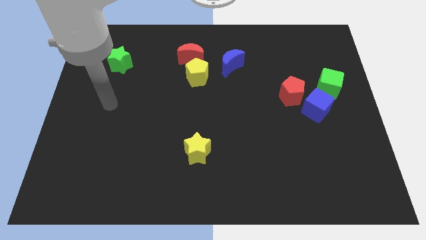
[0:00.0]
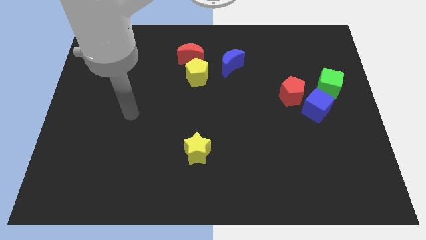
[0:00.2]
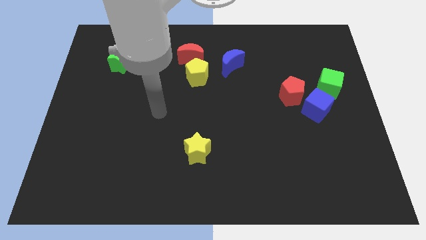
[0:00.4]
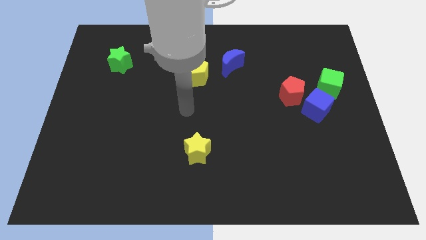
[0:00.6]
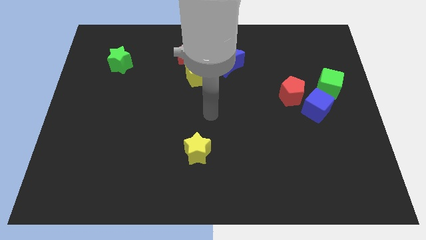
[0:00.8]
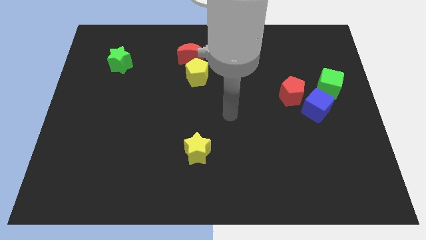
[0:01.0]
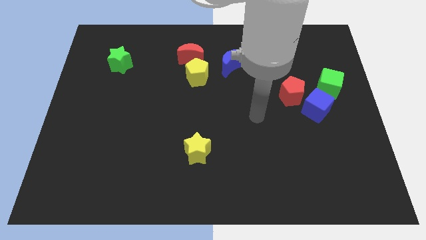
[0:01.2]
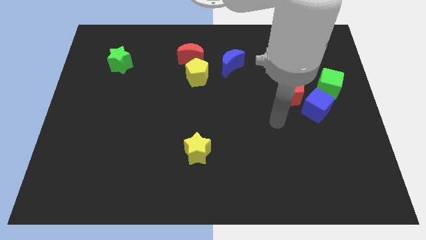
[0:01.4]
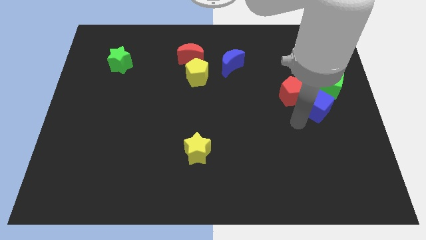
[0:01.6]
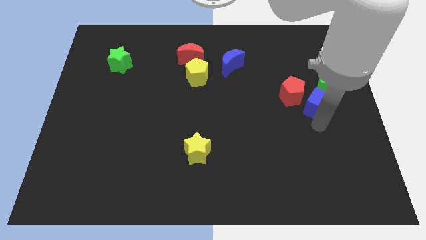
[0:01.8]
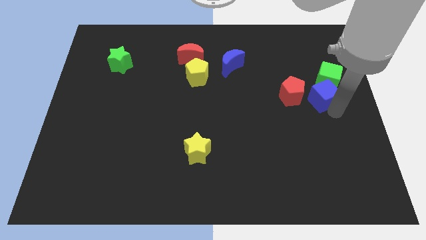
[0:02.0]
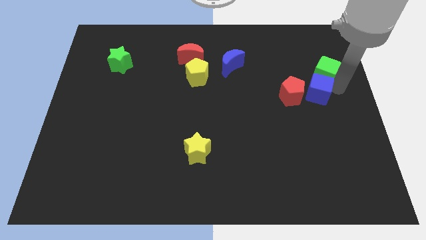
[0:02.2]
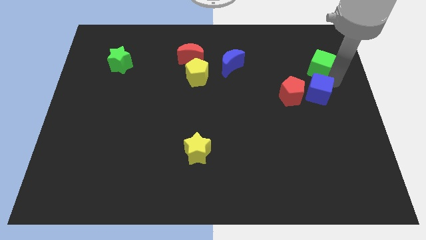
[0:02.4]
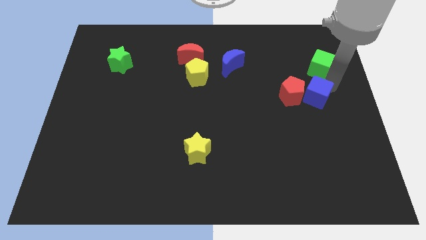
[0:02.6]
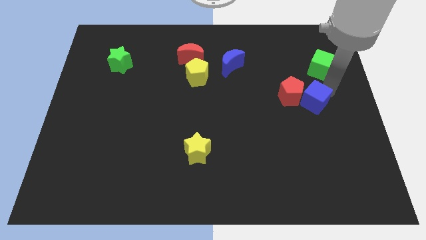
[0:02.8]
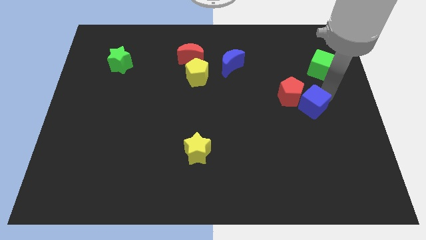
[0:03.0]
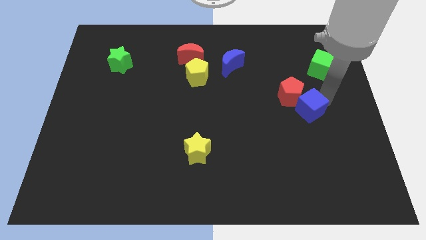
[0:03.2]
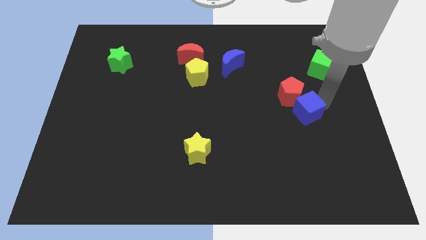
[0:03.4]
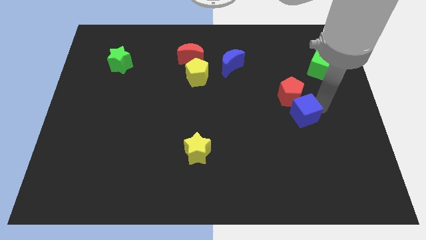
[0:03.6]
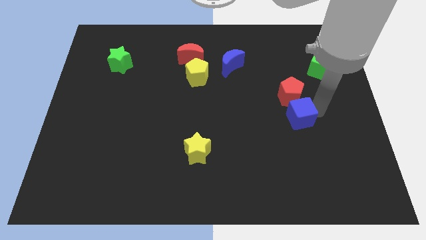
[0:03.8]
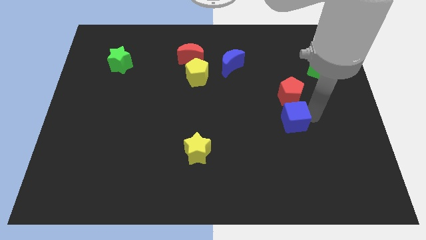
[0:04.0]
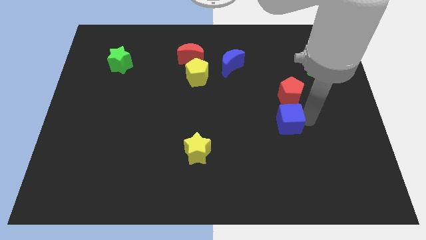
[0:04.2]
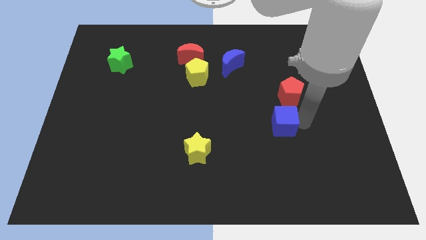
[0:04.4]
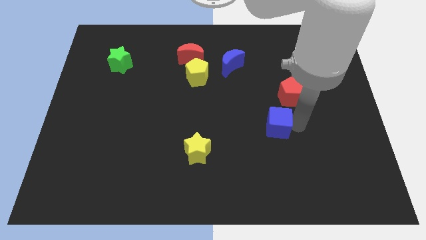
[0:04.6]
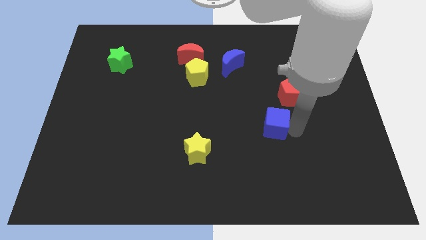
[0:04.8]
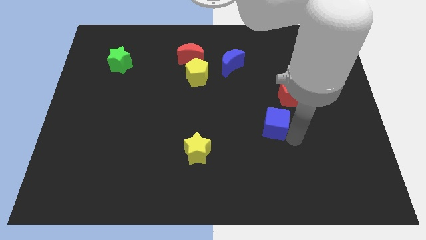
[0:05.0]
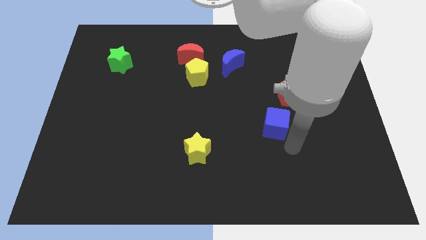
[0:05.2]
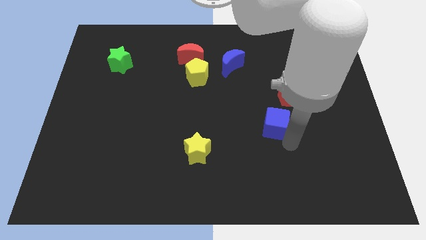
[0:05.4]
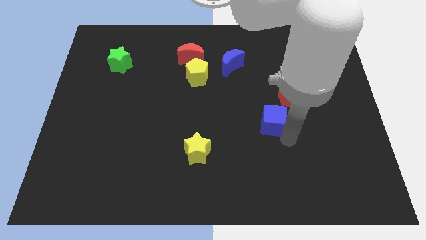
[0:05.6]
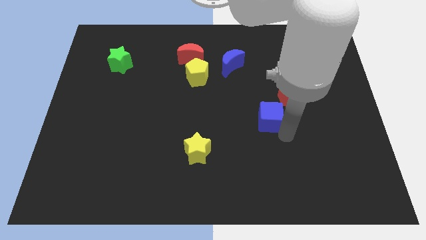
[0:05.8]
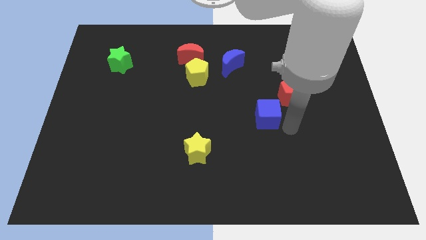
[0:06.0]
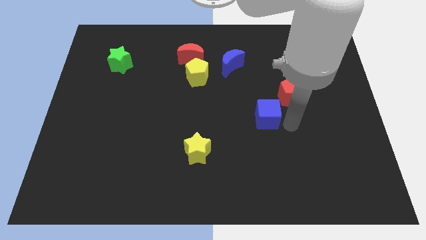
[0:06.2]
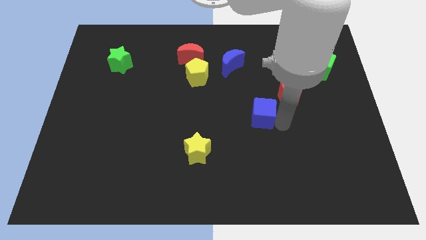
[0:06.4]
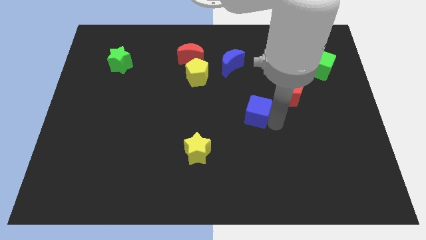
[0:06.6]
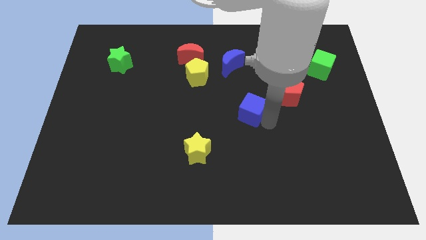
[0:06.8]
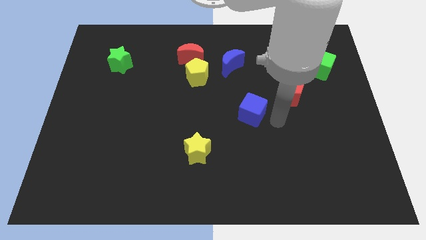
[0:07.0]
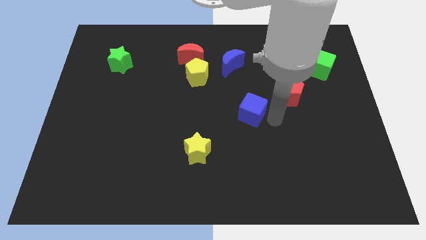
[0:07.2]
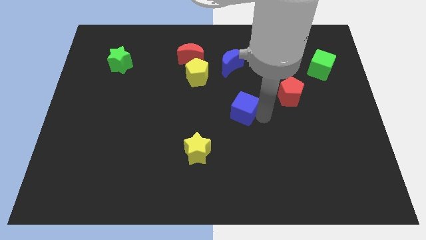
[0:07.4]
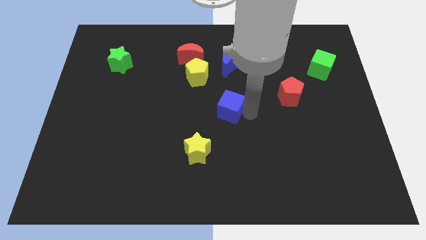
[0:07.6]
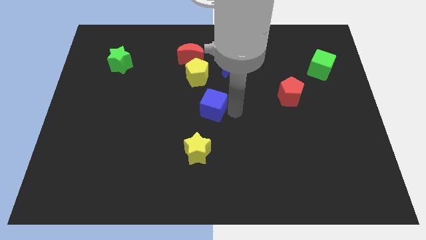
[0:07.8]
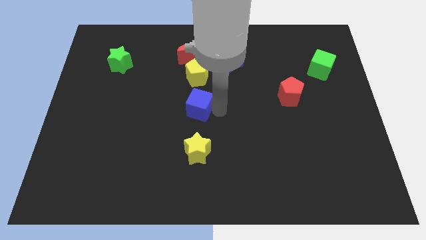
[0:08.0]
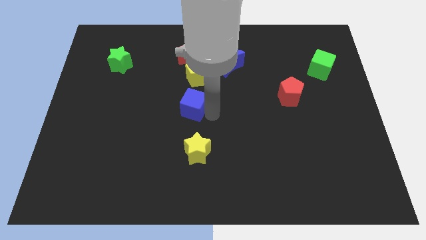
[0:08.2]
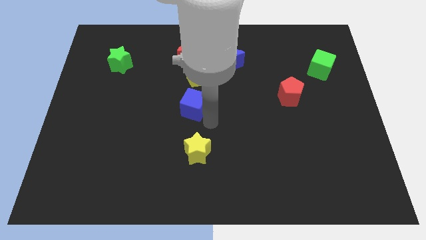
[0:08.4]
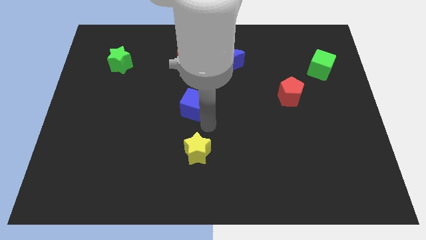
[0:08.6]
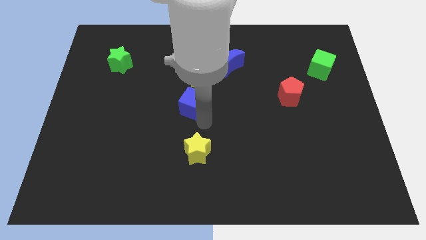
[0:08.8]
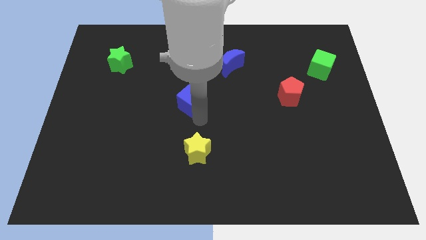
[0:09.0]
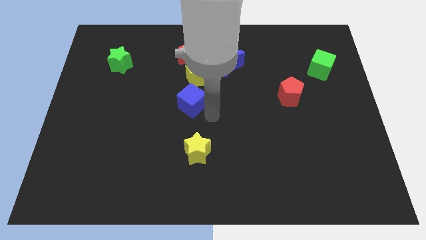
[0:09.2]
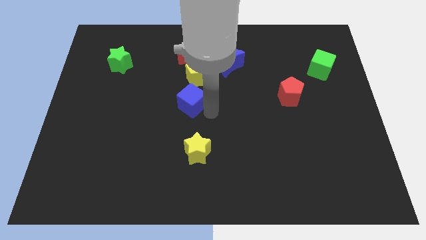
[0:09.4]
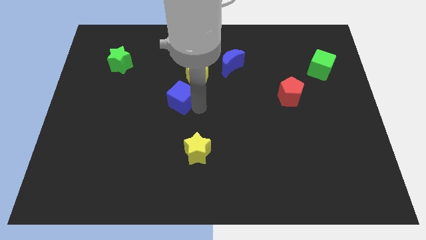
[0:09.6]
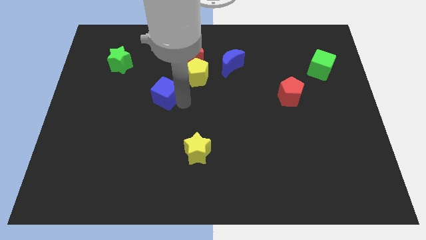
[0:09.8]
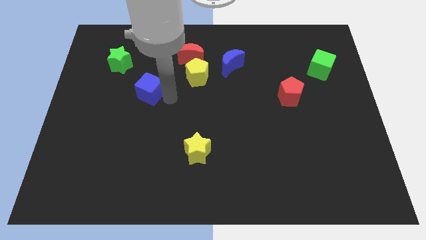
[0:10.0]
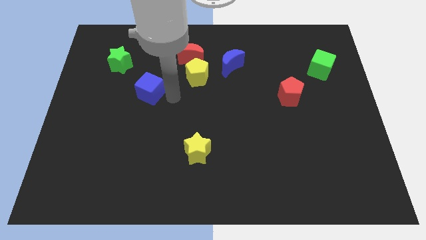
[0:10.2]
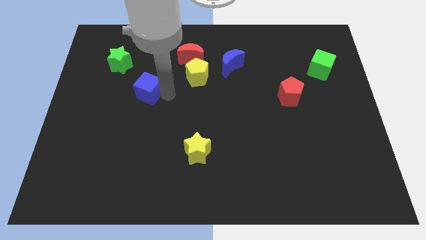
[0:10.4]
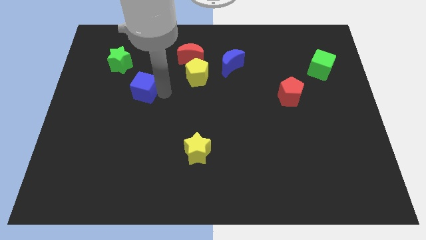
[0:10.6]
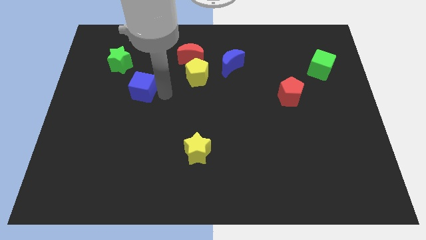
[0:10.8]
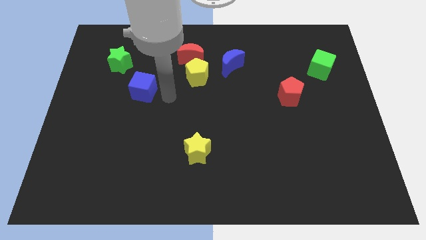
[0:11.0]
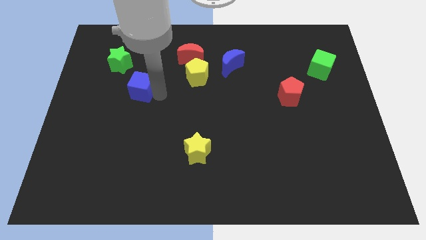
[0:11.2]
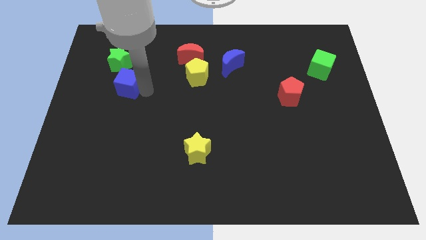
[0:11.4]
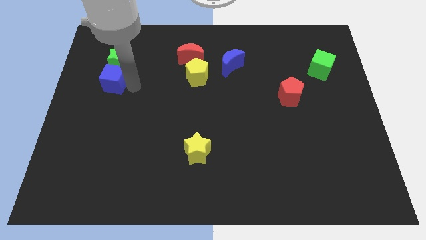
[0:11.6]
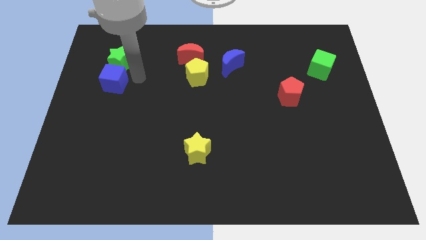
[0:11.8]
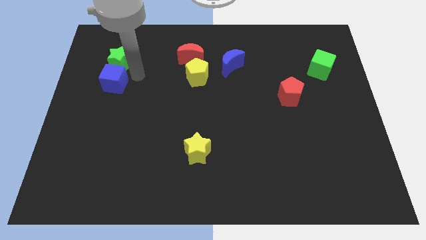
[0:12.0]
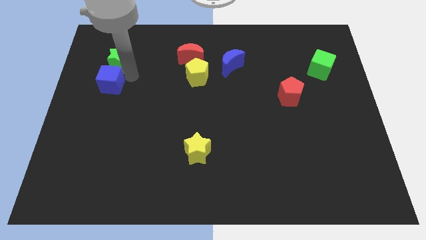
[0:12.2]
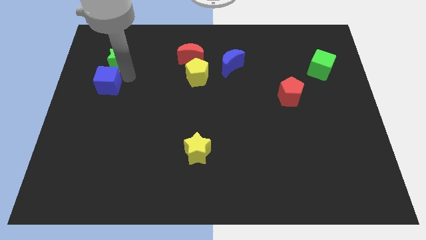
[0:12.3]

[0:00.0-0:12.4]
slide the blue cube to the center left
